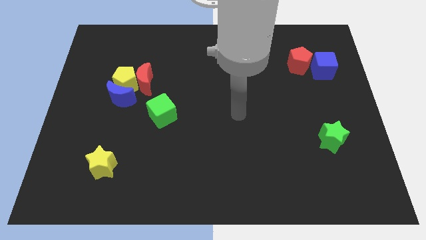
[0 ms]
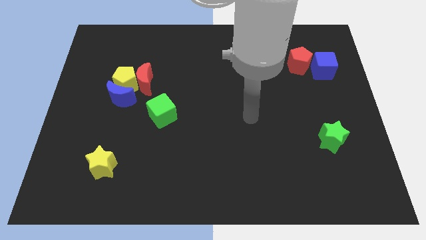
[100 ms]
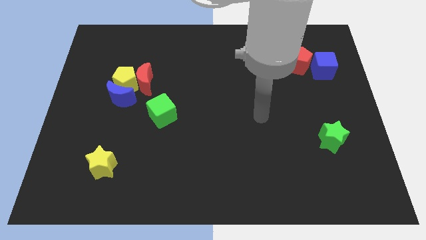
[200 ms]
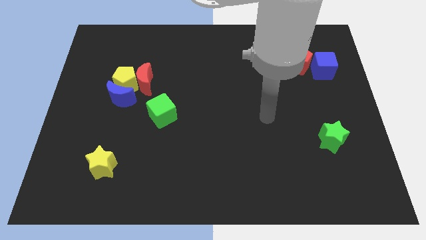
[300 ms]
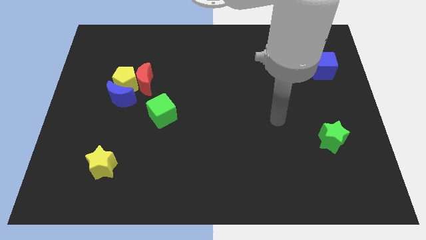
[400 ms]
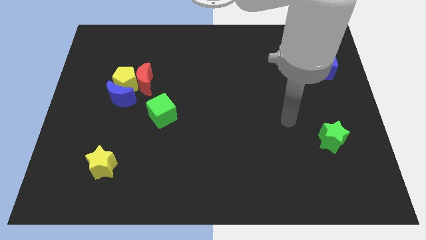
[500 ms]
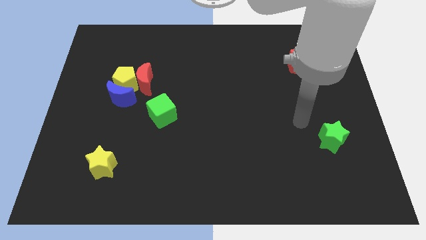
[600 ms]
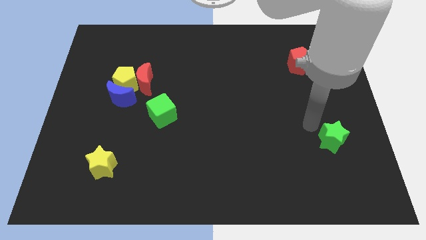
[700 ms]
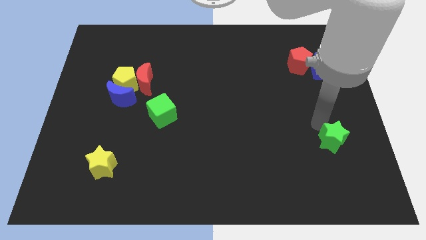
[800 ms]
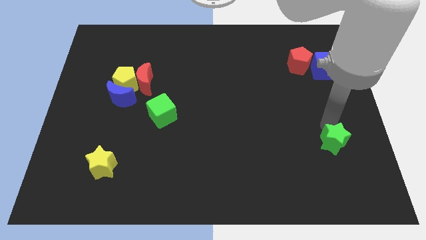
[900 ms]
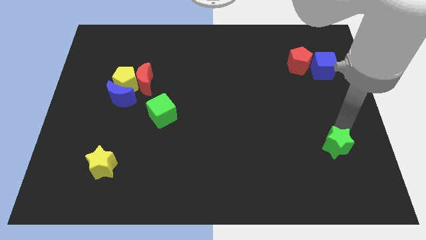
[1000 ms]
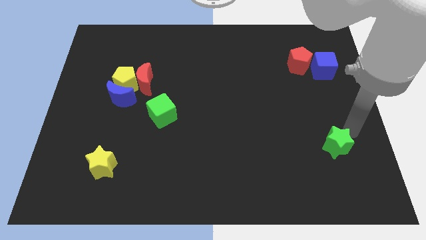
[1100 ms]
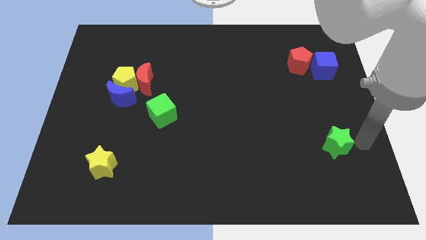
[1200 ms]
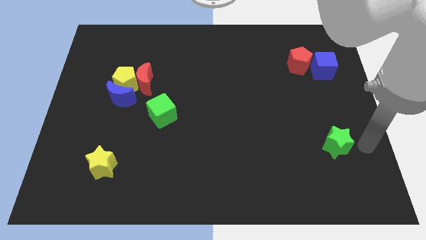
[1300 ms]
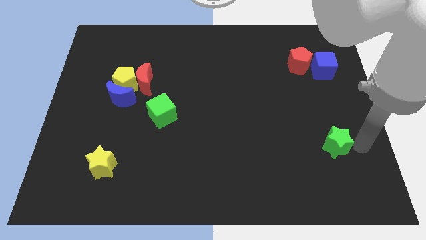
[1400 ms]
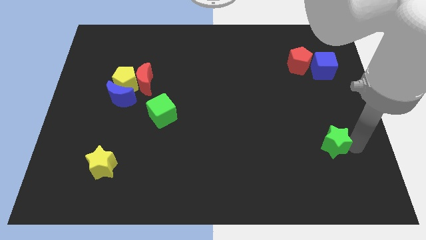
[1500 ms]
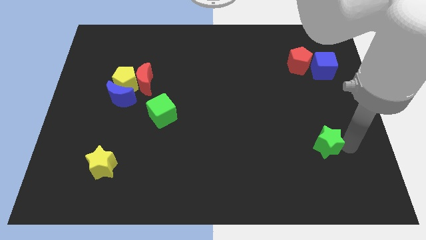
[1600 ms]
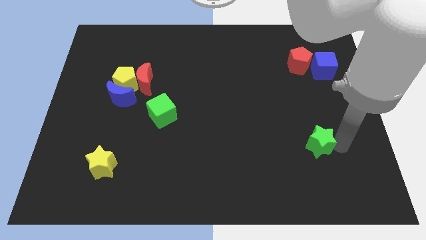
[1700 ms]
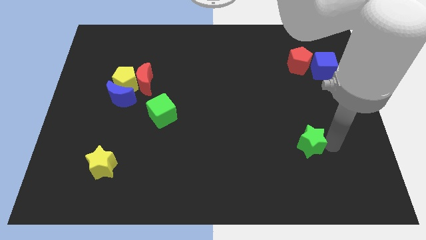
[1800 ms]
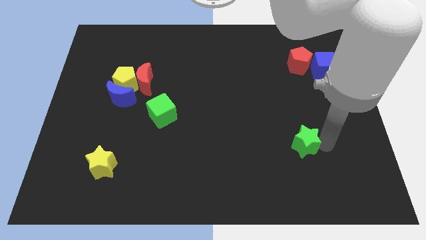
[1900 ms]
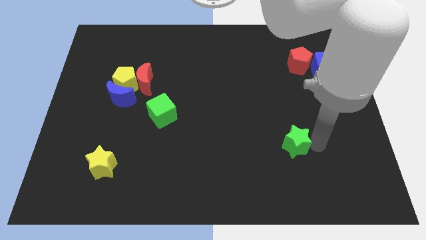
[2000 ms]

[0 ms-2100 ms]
slide the green star left a little

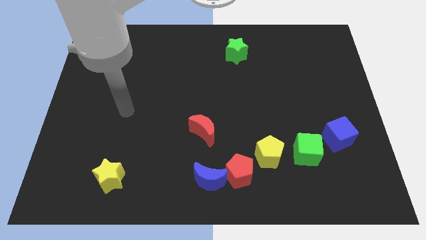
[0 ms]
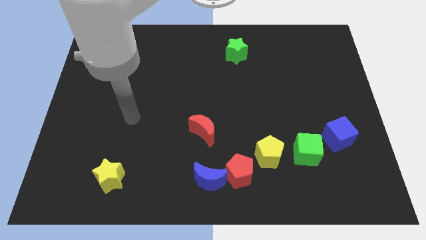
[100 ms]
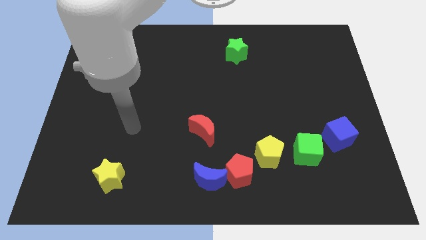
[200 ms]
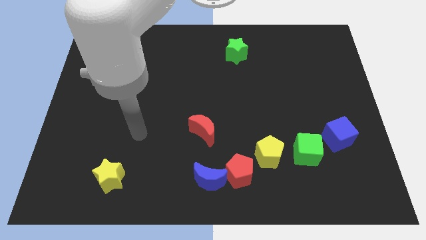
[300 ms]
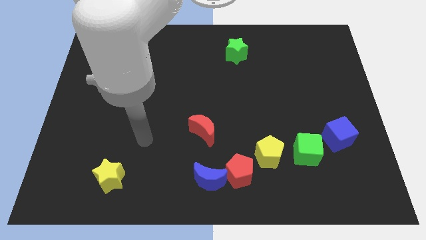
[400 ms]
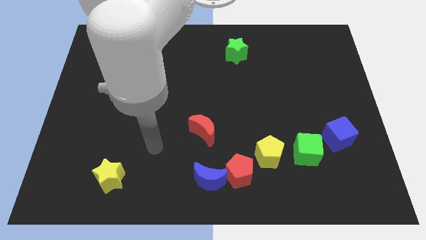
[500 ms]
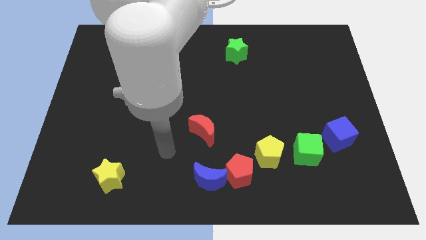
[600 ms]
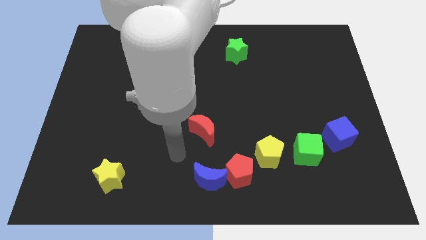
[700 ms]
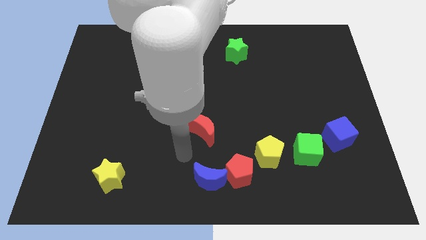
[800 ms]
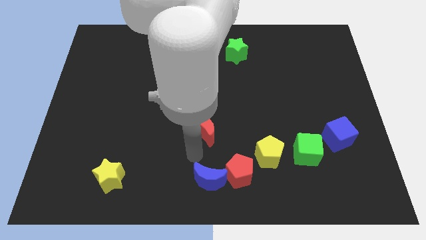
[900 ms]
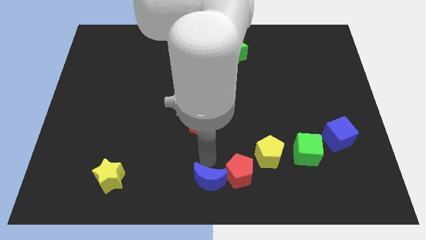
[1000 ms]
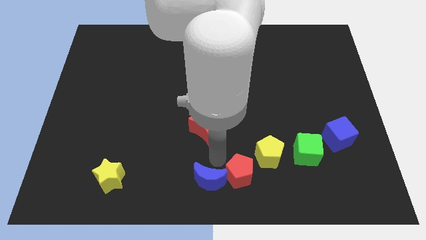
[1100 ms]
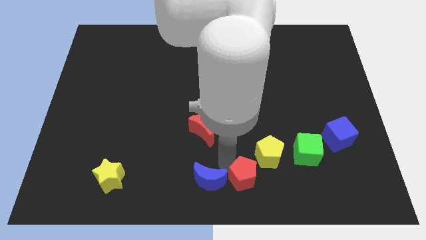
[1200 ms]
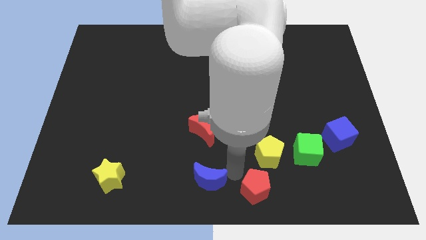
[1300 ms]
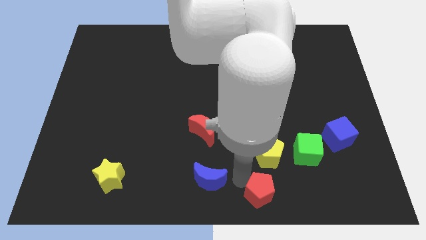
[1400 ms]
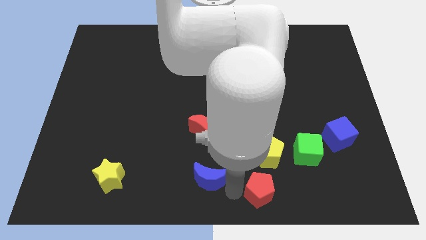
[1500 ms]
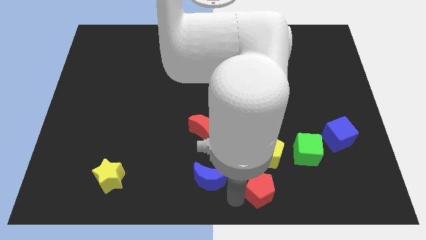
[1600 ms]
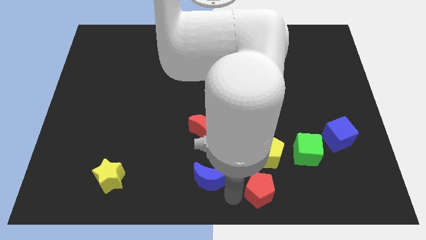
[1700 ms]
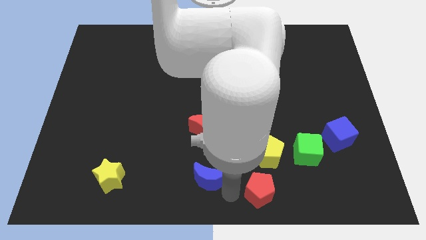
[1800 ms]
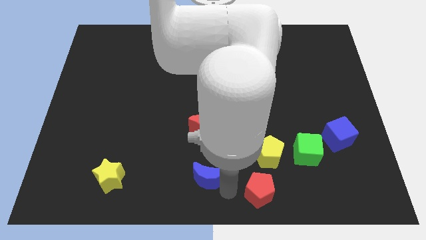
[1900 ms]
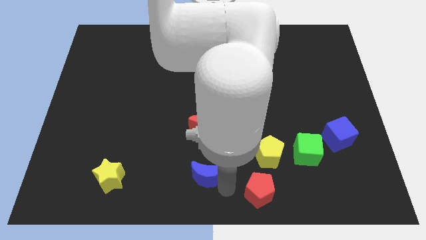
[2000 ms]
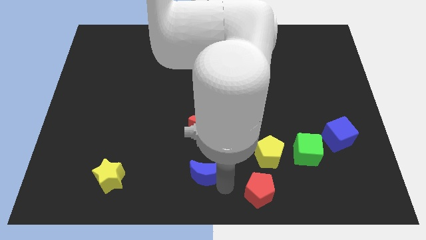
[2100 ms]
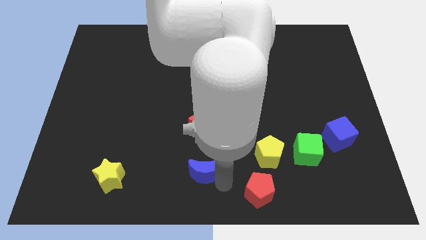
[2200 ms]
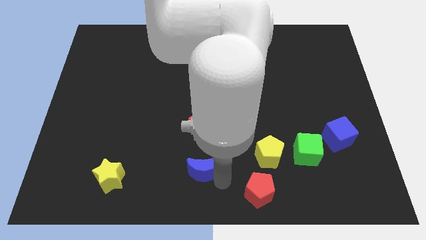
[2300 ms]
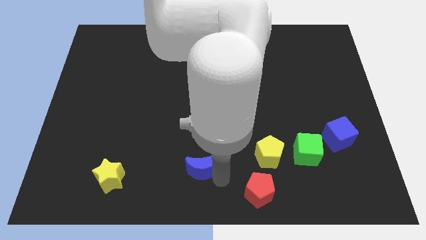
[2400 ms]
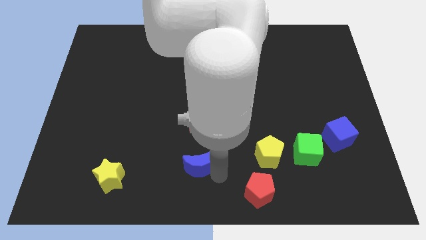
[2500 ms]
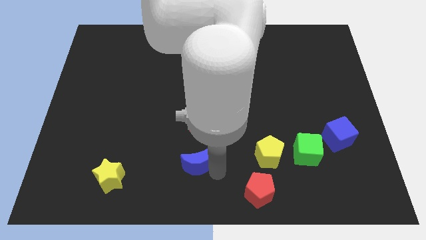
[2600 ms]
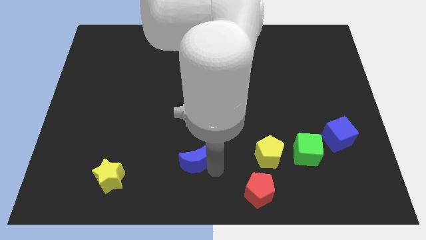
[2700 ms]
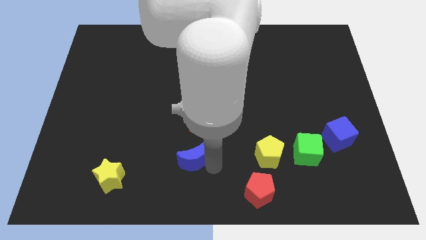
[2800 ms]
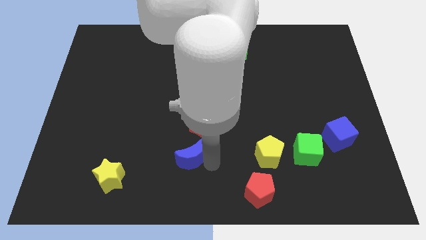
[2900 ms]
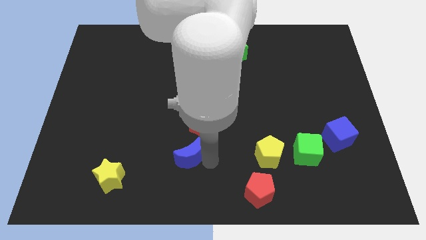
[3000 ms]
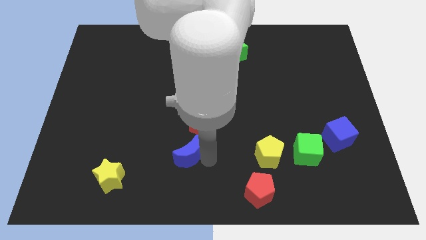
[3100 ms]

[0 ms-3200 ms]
slightly slide the blue moon up and to the left diagonally

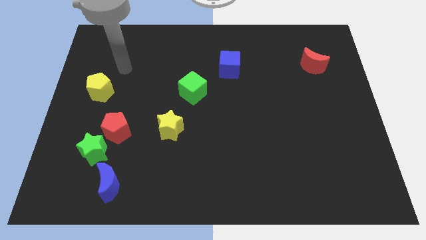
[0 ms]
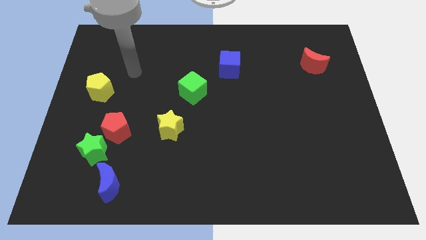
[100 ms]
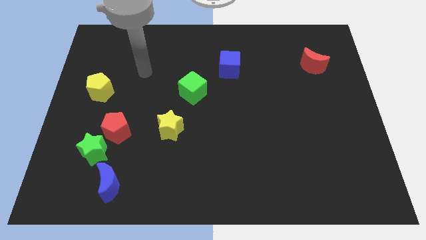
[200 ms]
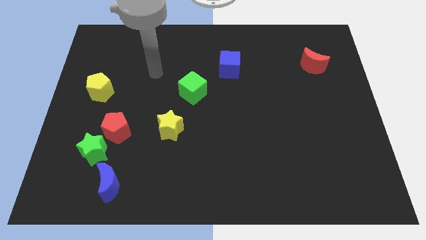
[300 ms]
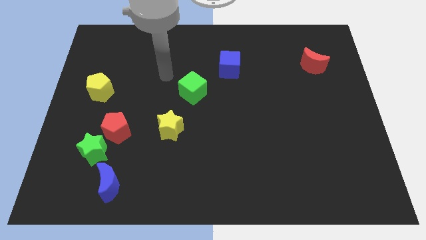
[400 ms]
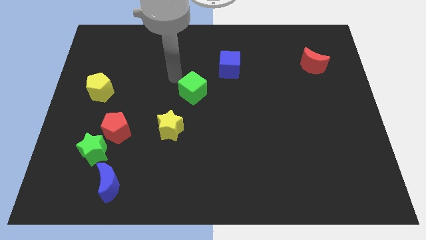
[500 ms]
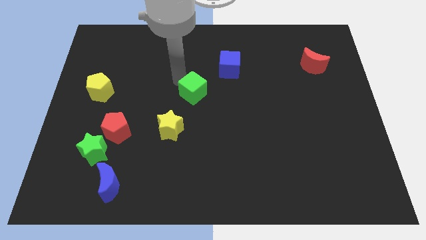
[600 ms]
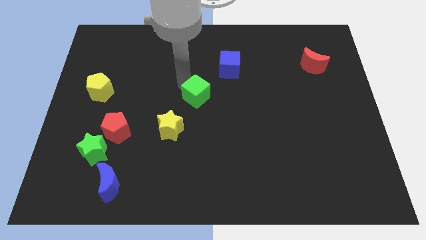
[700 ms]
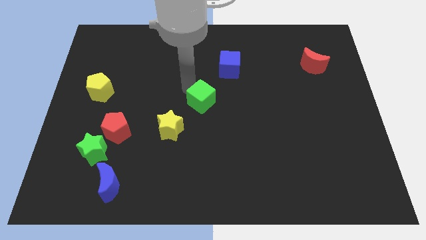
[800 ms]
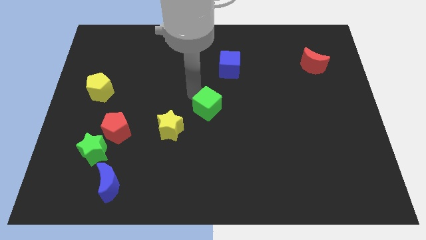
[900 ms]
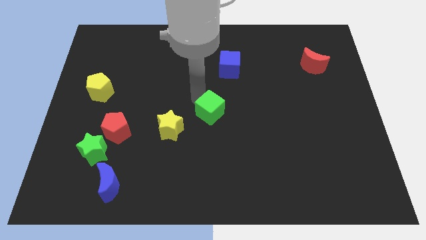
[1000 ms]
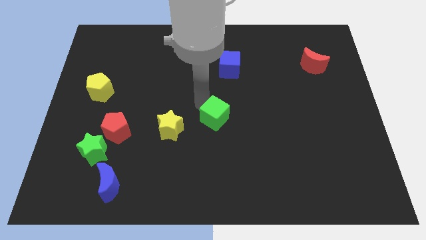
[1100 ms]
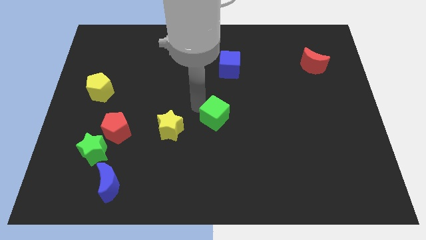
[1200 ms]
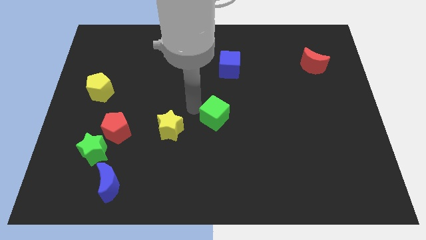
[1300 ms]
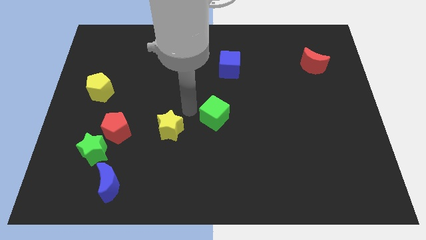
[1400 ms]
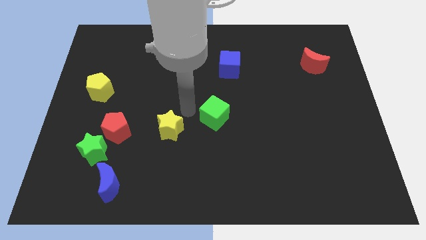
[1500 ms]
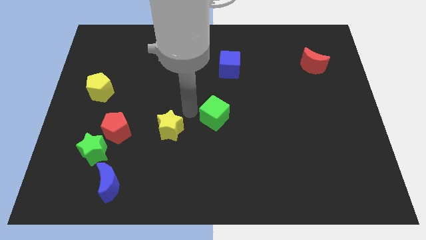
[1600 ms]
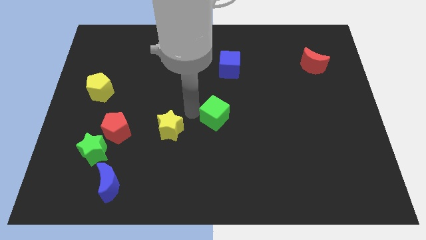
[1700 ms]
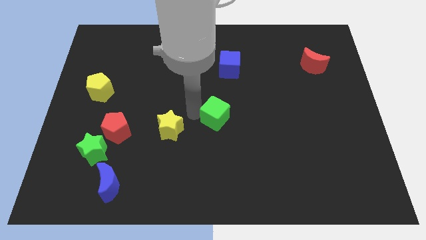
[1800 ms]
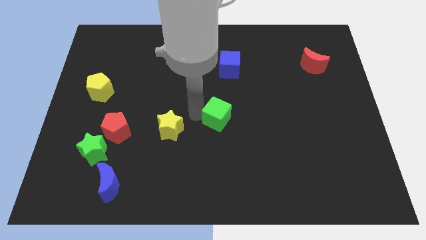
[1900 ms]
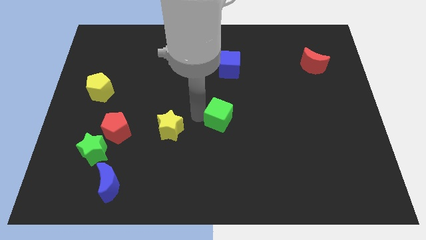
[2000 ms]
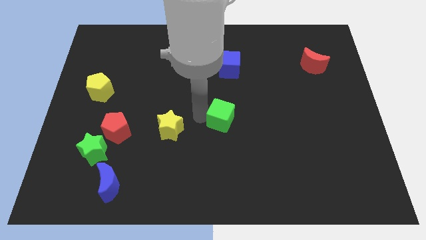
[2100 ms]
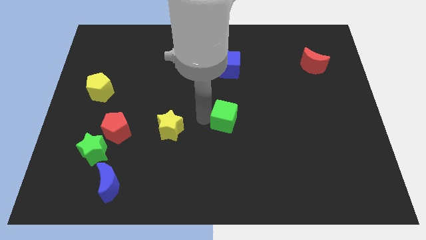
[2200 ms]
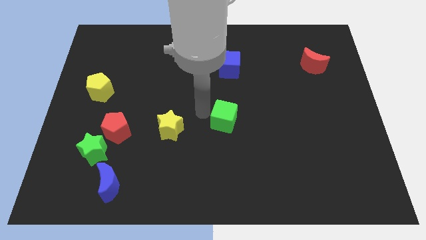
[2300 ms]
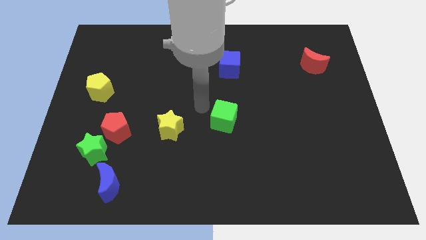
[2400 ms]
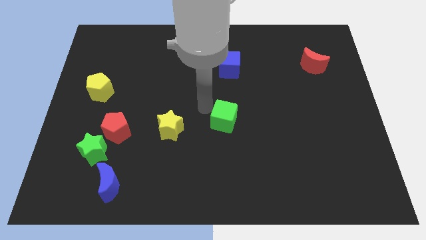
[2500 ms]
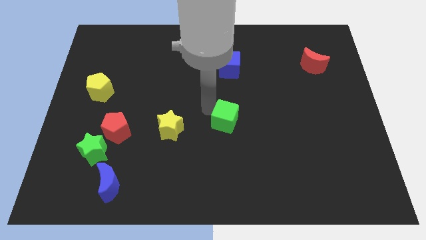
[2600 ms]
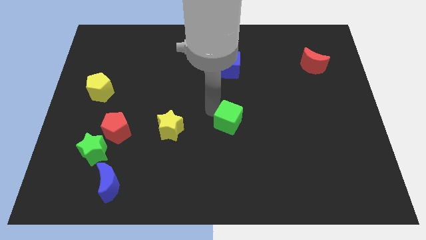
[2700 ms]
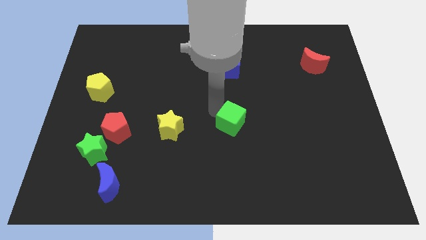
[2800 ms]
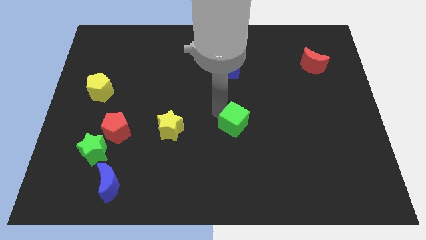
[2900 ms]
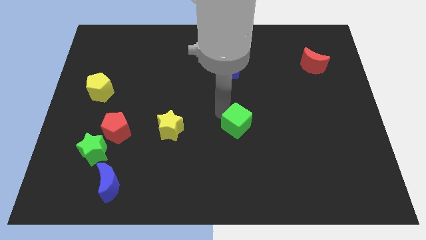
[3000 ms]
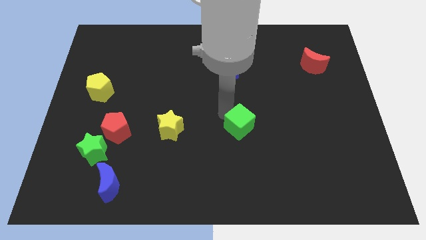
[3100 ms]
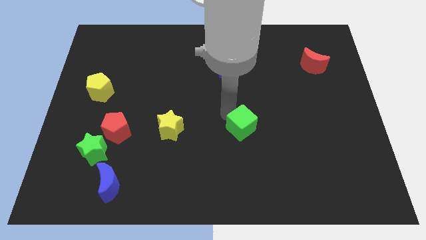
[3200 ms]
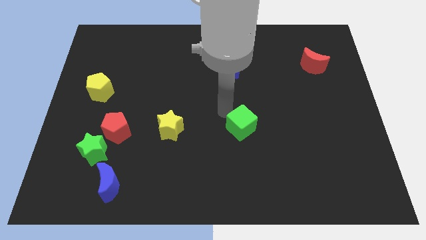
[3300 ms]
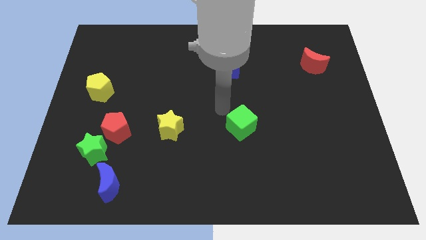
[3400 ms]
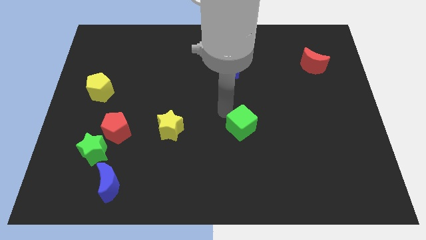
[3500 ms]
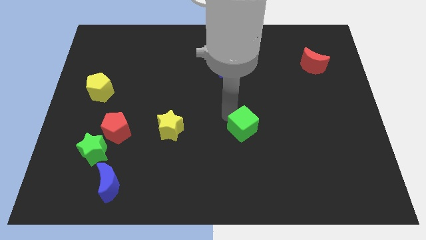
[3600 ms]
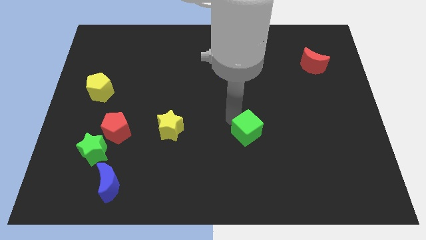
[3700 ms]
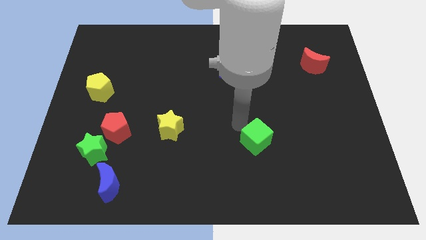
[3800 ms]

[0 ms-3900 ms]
slide the green cube down and to the right diagonally
